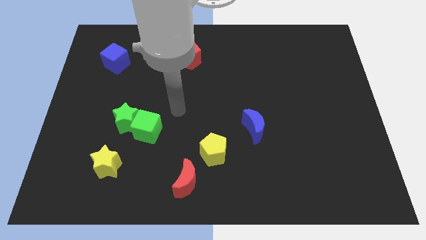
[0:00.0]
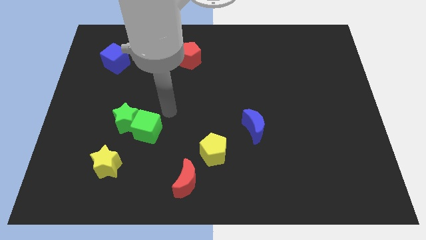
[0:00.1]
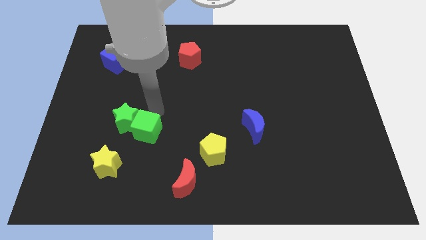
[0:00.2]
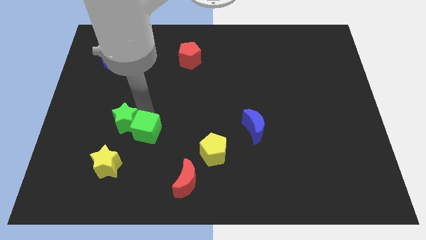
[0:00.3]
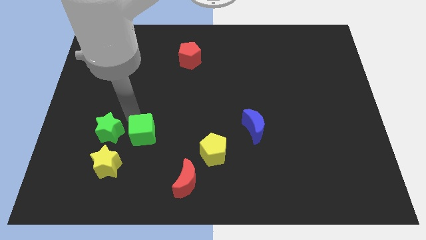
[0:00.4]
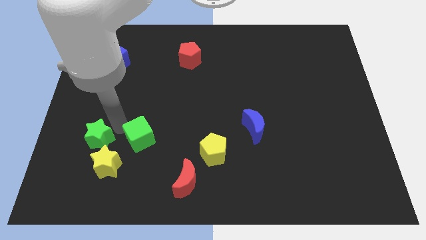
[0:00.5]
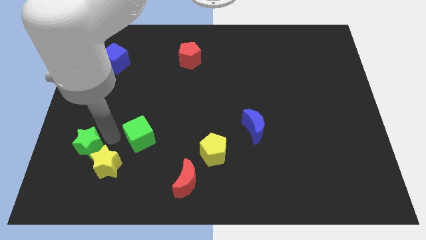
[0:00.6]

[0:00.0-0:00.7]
move the green cube away from the green star

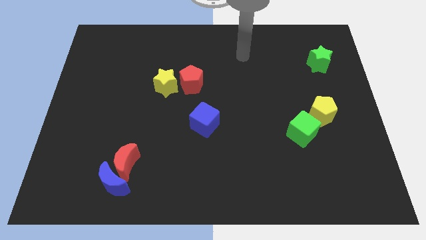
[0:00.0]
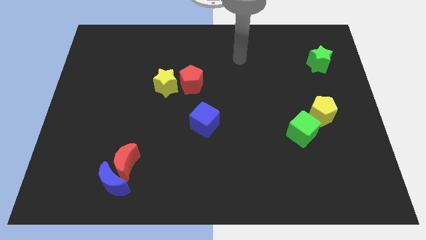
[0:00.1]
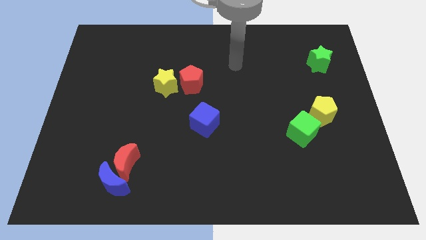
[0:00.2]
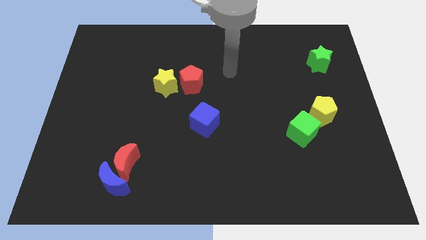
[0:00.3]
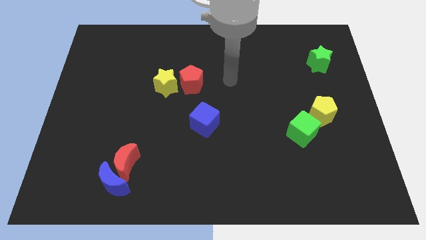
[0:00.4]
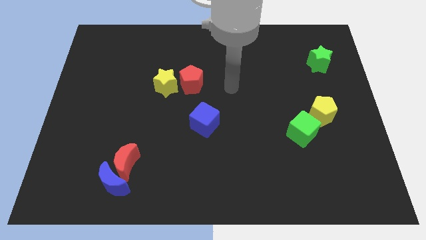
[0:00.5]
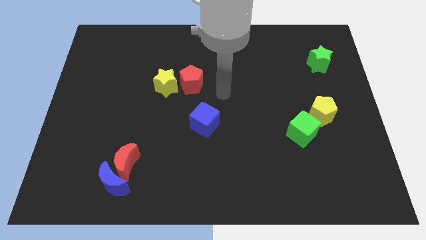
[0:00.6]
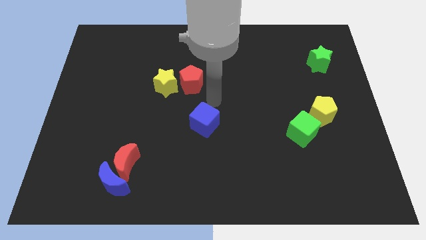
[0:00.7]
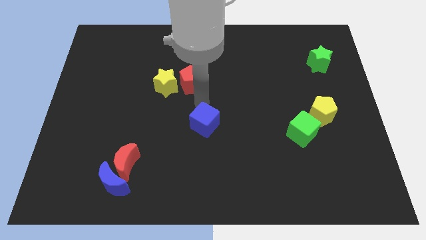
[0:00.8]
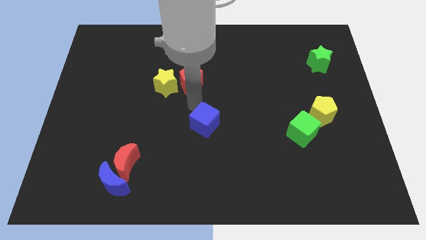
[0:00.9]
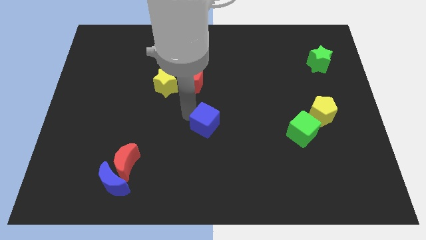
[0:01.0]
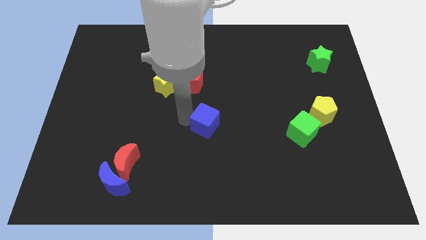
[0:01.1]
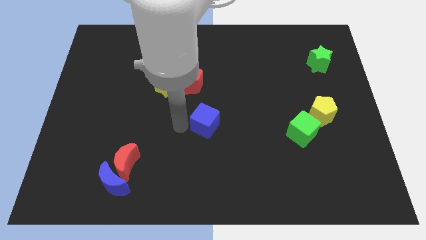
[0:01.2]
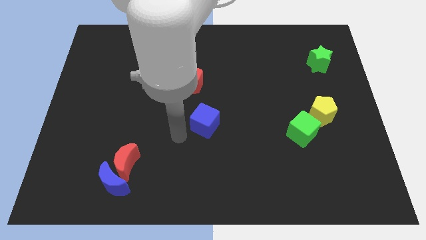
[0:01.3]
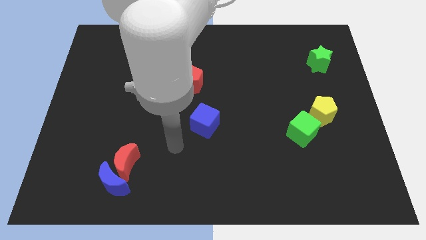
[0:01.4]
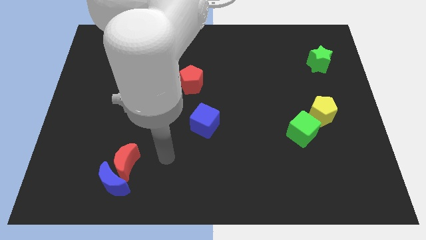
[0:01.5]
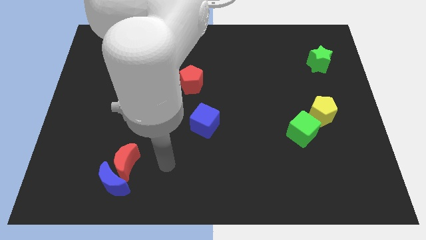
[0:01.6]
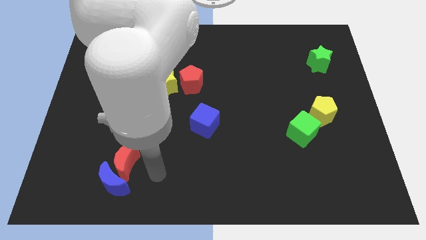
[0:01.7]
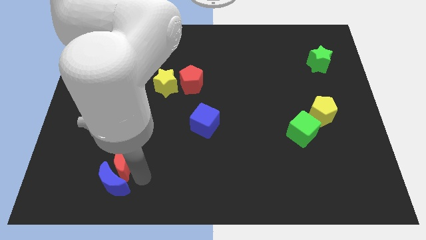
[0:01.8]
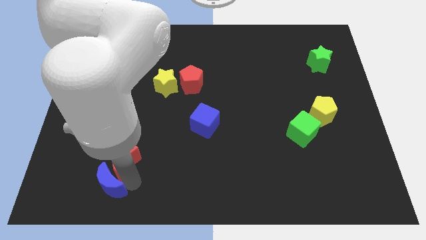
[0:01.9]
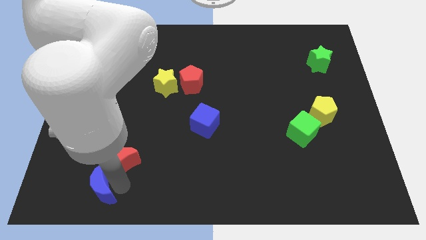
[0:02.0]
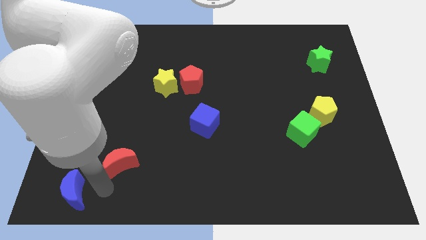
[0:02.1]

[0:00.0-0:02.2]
pull the red moon apart from the blue moon

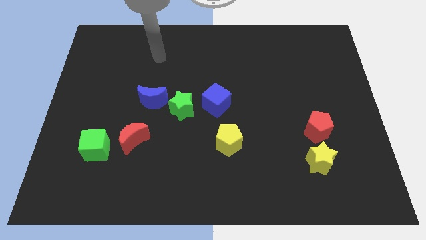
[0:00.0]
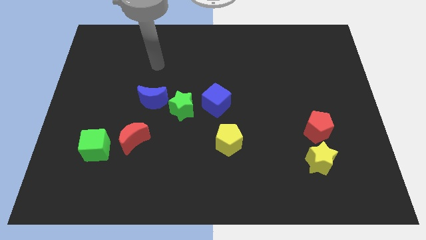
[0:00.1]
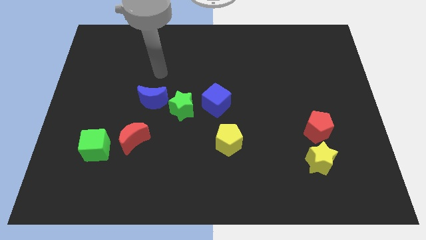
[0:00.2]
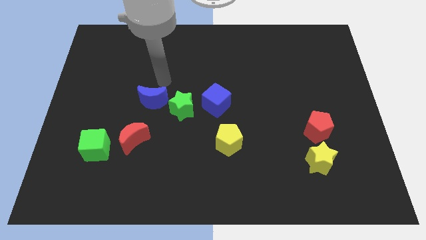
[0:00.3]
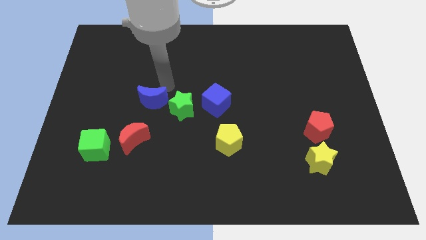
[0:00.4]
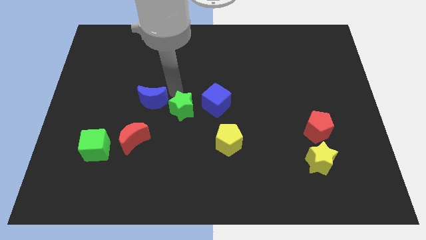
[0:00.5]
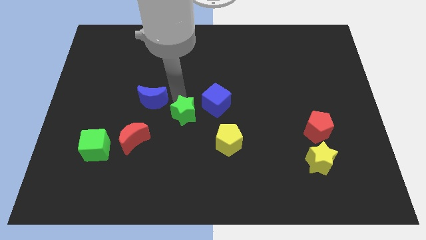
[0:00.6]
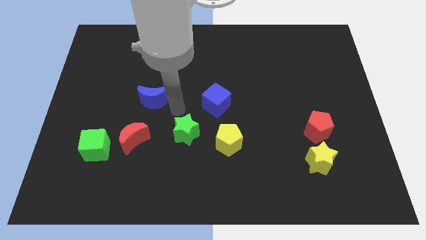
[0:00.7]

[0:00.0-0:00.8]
pull the blue moon apart from the green star

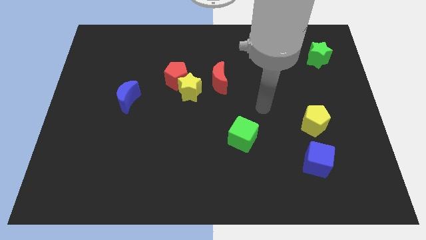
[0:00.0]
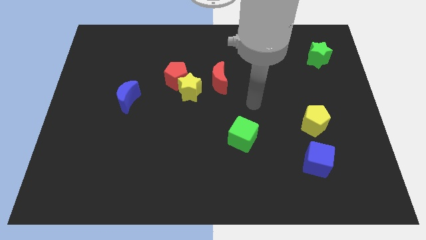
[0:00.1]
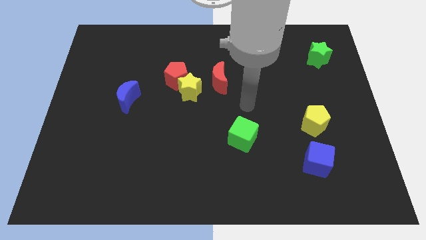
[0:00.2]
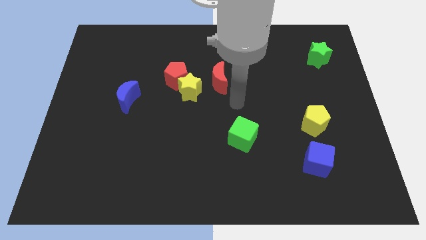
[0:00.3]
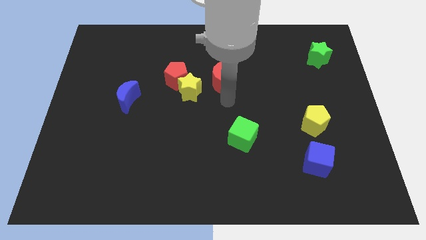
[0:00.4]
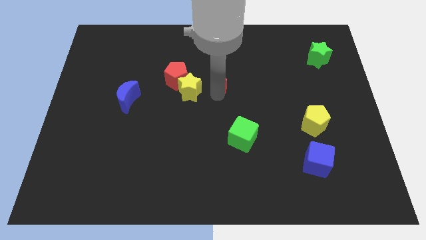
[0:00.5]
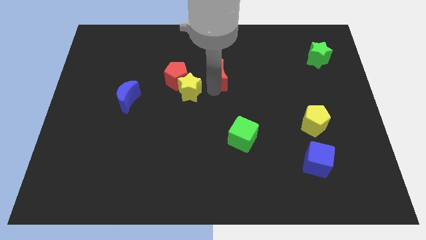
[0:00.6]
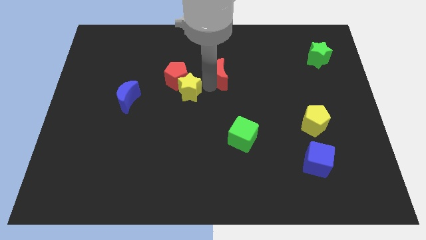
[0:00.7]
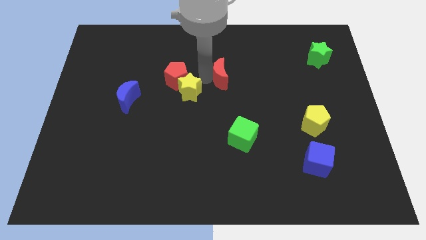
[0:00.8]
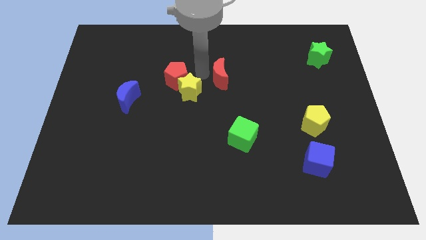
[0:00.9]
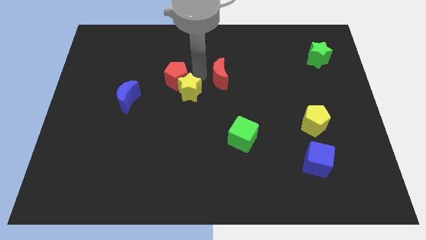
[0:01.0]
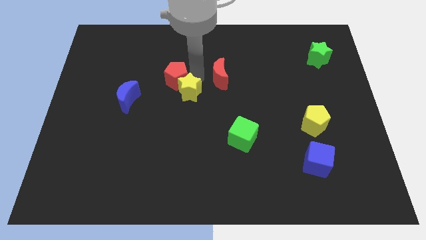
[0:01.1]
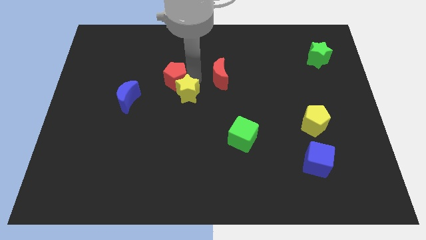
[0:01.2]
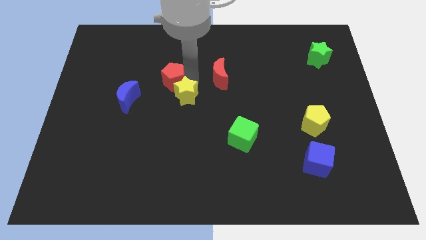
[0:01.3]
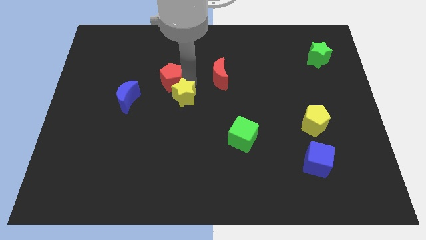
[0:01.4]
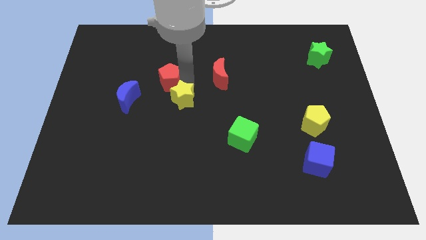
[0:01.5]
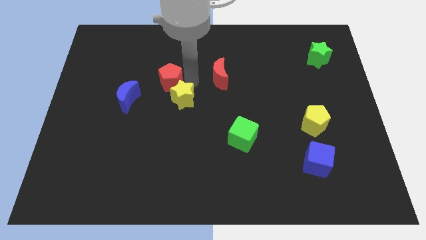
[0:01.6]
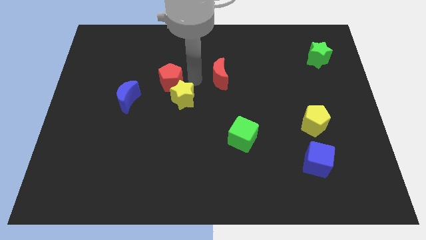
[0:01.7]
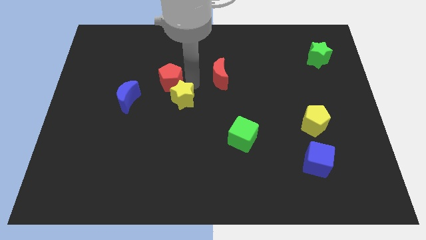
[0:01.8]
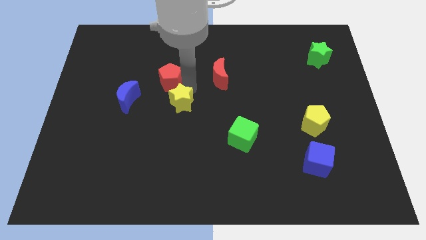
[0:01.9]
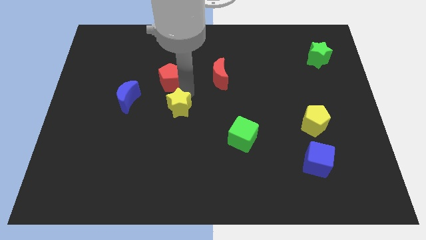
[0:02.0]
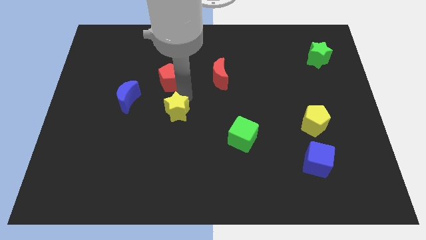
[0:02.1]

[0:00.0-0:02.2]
separate the yellow star from the red pentagon and red moon

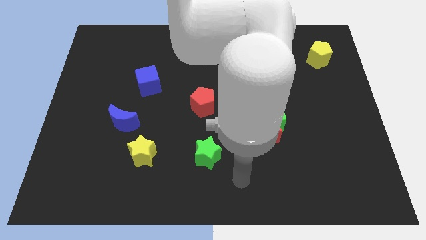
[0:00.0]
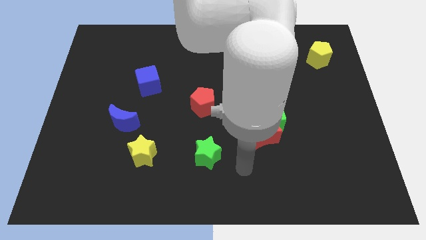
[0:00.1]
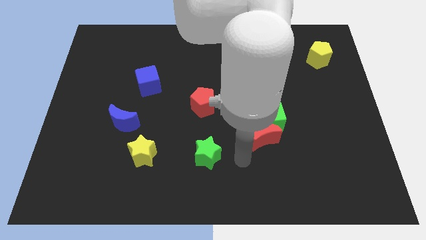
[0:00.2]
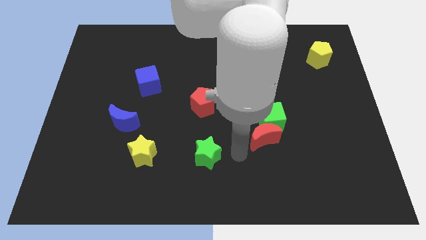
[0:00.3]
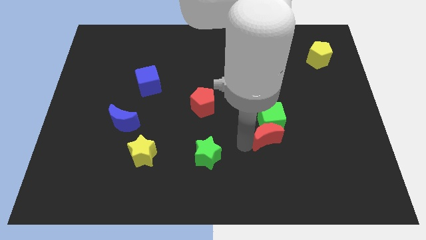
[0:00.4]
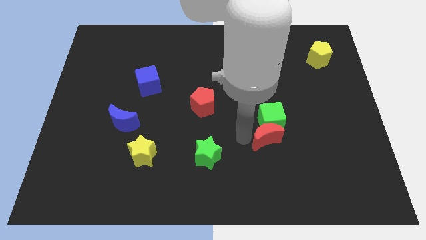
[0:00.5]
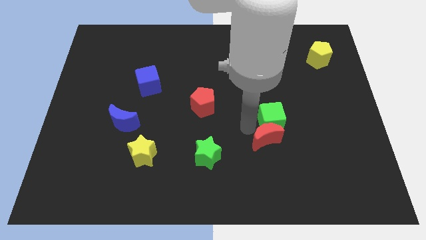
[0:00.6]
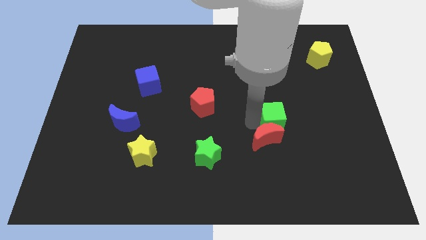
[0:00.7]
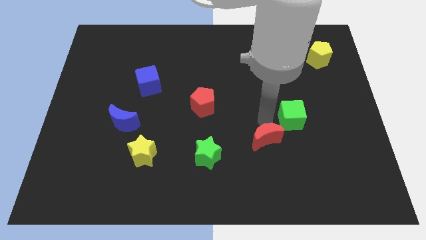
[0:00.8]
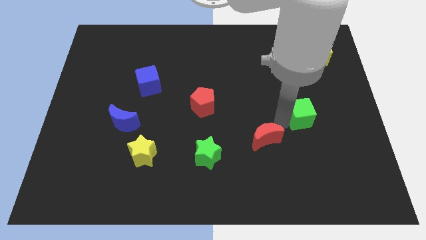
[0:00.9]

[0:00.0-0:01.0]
separate the red moon from the green cube

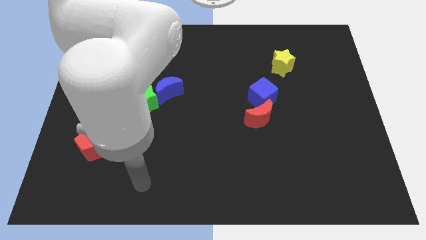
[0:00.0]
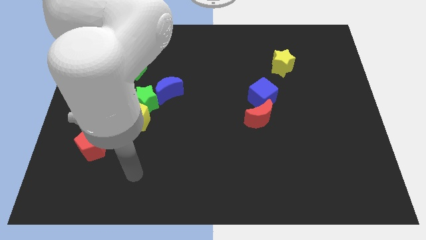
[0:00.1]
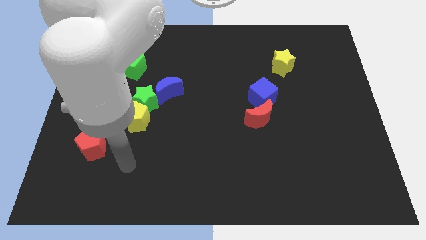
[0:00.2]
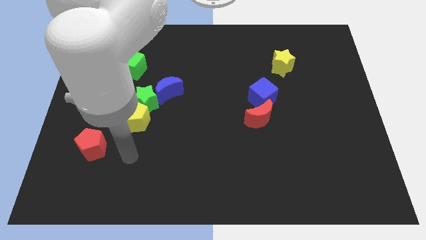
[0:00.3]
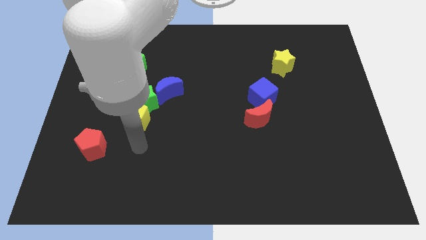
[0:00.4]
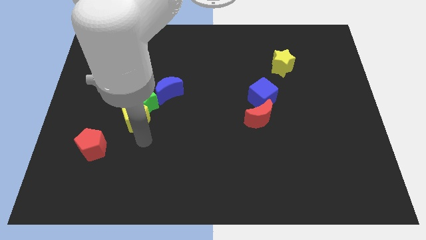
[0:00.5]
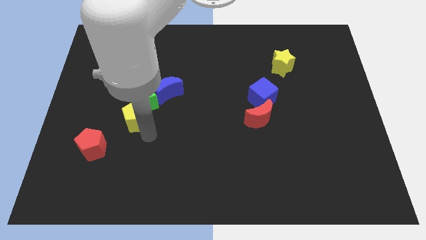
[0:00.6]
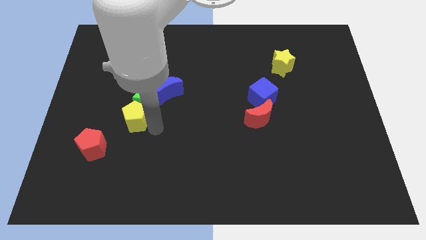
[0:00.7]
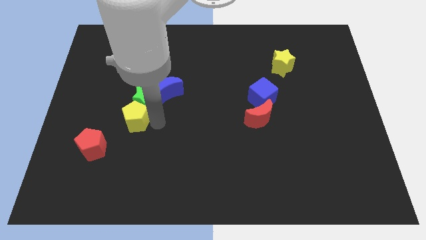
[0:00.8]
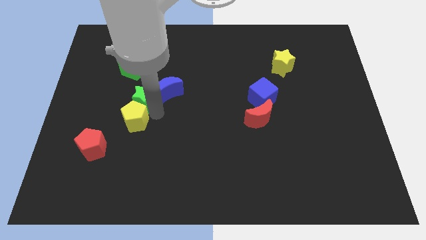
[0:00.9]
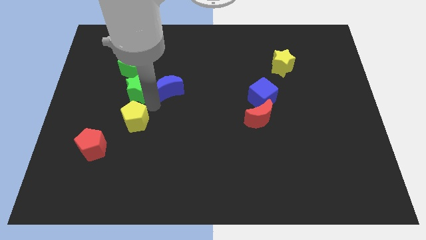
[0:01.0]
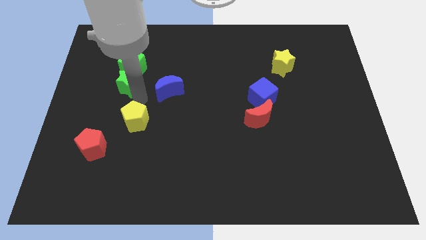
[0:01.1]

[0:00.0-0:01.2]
separate the yellow pentagon from the green star

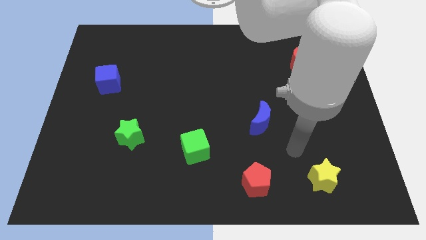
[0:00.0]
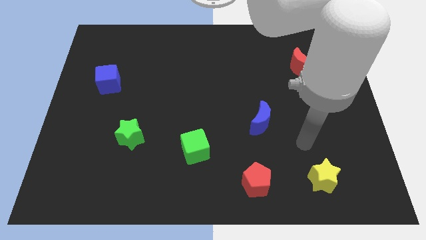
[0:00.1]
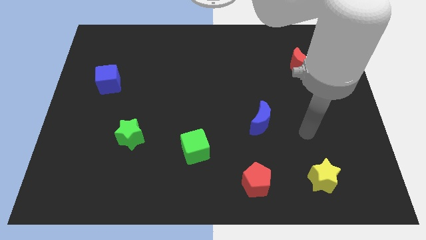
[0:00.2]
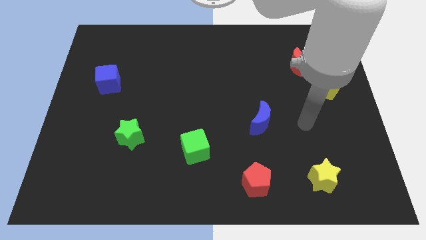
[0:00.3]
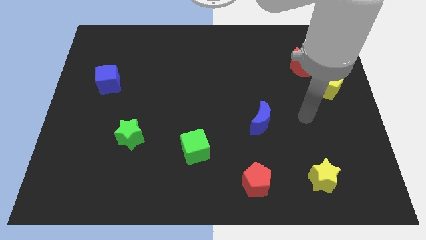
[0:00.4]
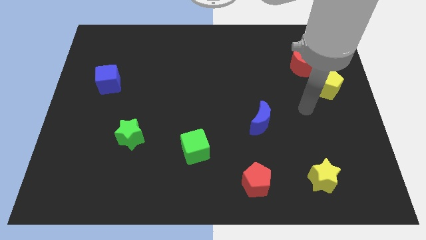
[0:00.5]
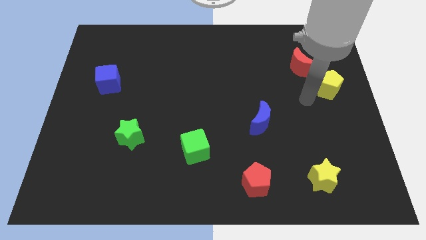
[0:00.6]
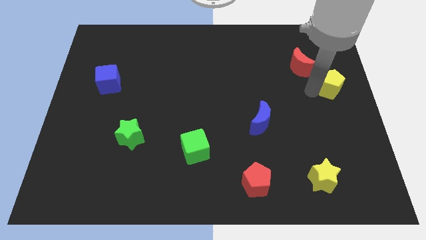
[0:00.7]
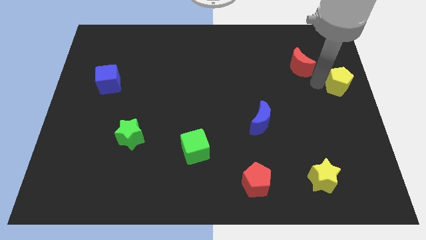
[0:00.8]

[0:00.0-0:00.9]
pull the red moon apart from the yellow pentagon

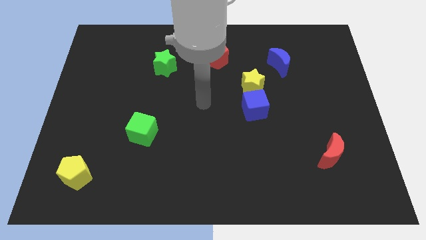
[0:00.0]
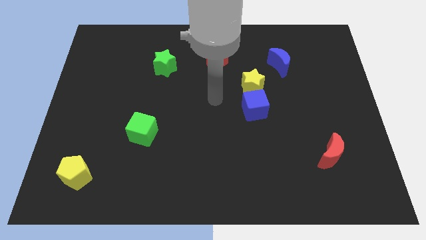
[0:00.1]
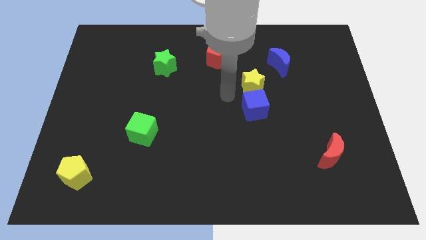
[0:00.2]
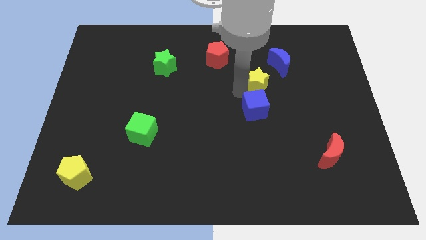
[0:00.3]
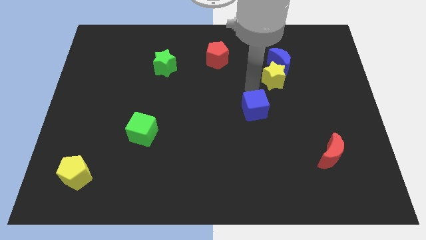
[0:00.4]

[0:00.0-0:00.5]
pull the blue cube apart from the yellow star
